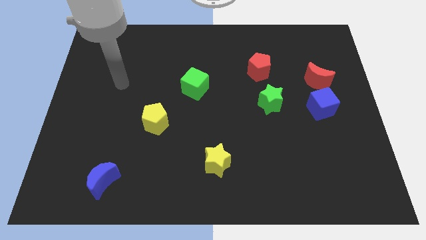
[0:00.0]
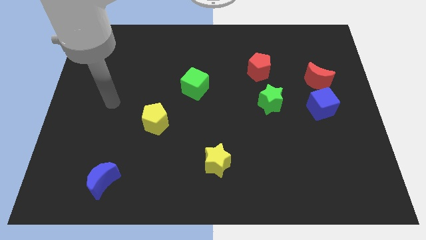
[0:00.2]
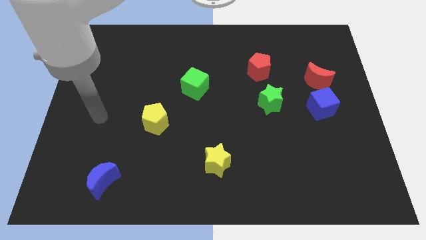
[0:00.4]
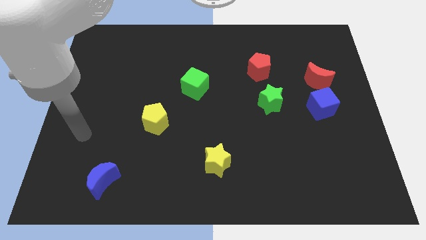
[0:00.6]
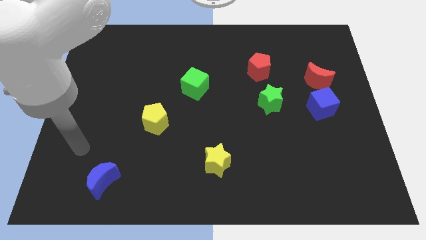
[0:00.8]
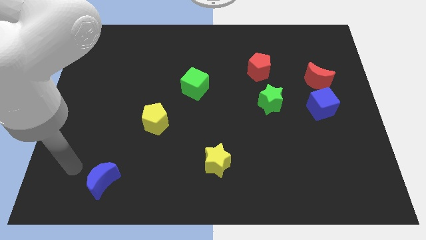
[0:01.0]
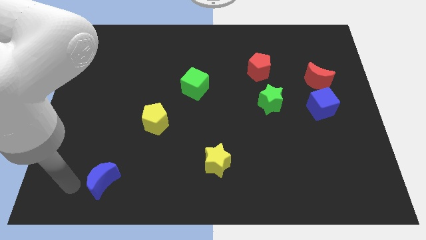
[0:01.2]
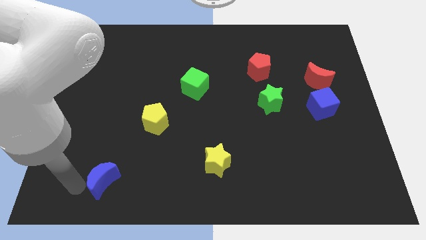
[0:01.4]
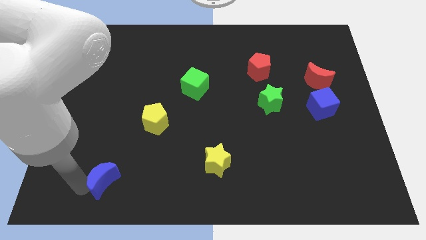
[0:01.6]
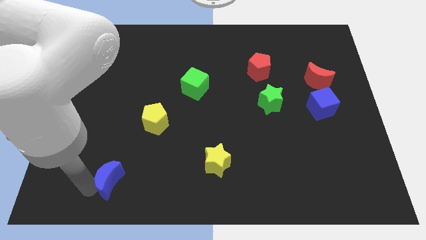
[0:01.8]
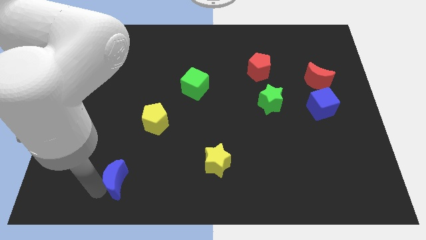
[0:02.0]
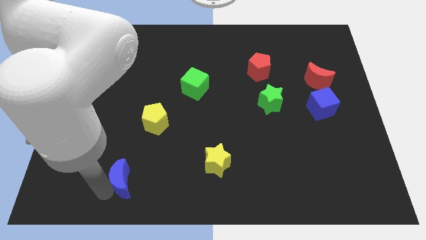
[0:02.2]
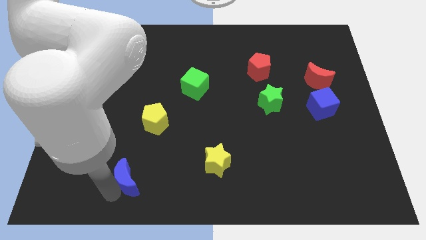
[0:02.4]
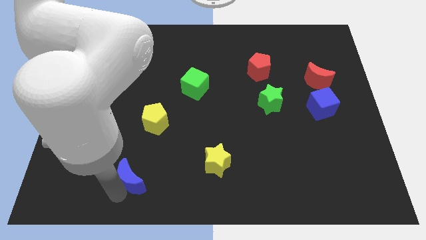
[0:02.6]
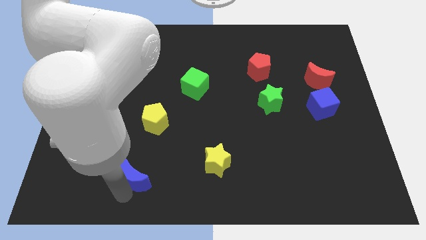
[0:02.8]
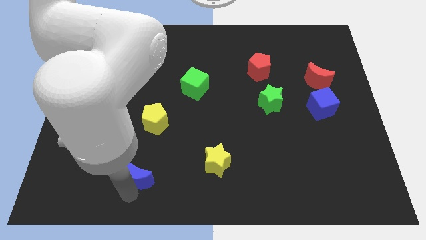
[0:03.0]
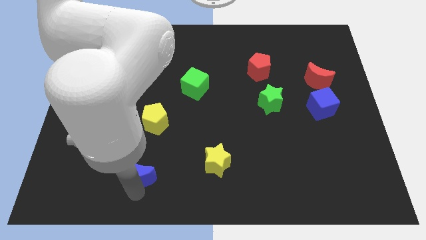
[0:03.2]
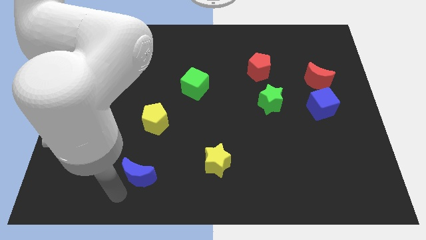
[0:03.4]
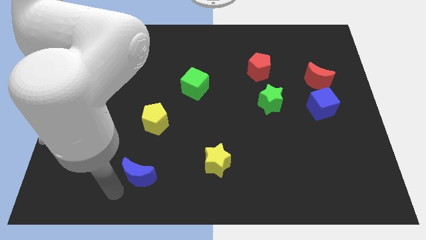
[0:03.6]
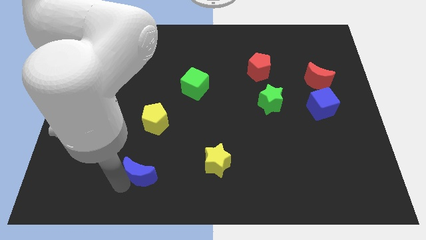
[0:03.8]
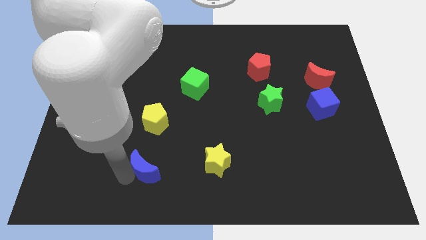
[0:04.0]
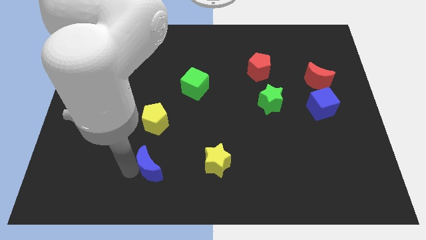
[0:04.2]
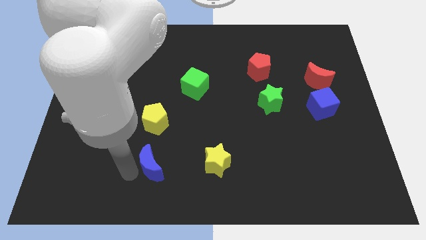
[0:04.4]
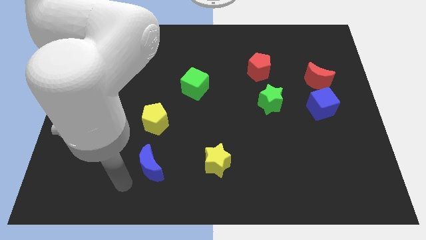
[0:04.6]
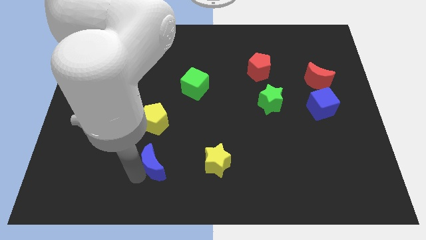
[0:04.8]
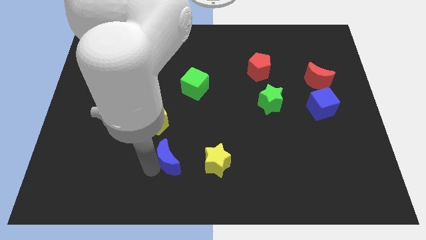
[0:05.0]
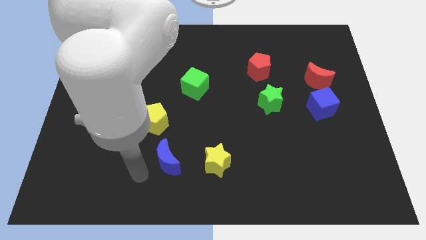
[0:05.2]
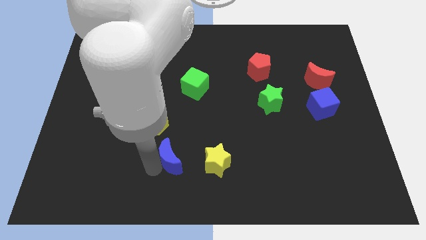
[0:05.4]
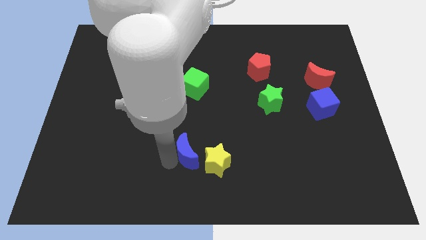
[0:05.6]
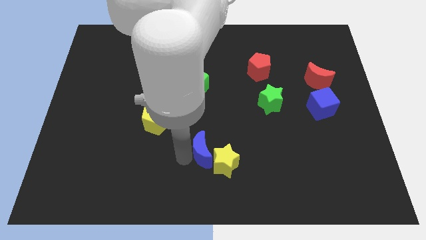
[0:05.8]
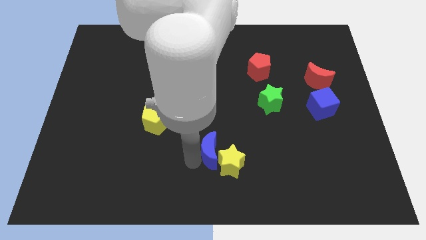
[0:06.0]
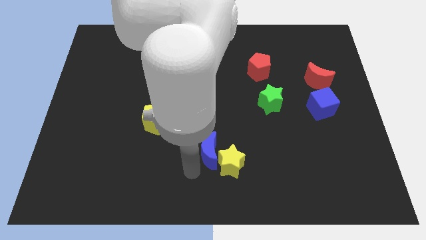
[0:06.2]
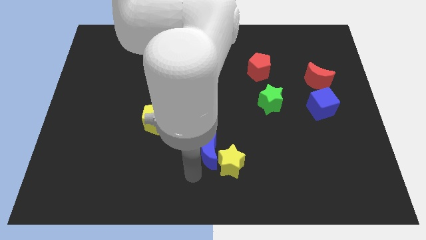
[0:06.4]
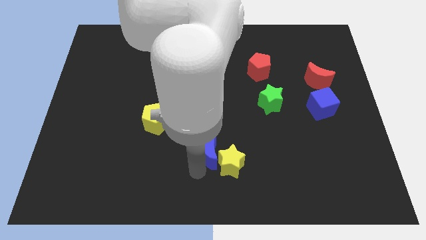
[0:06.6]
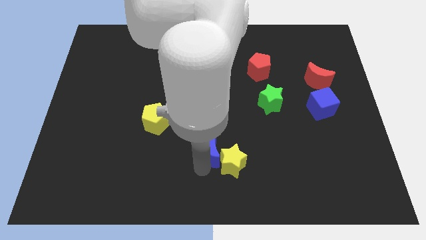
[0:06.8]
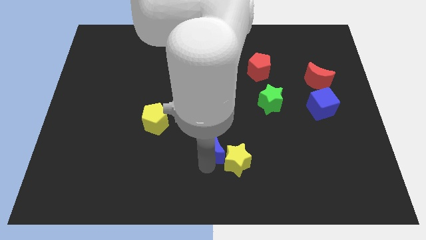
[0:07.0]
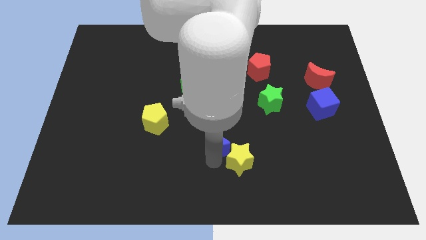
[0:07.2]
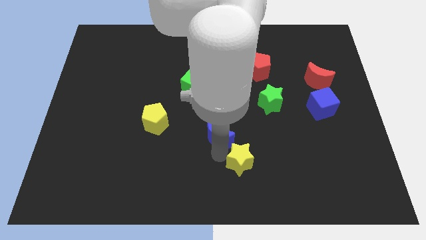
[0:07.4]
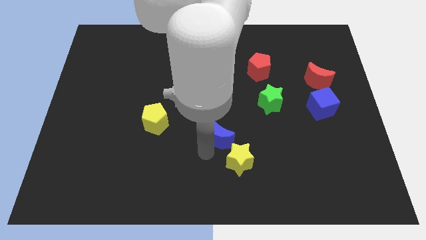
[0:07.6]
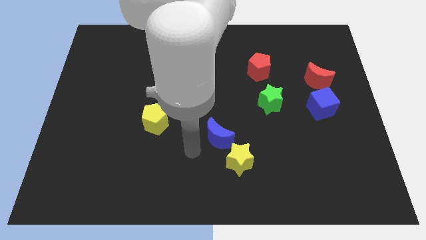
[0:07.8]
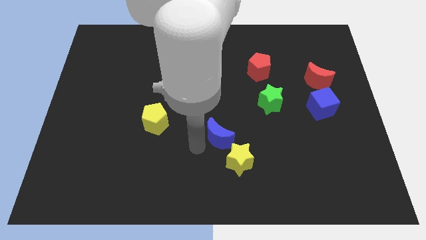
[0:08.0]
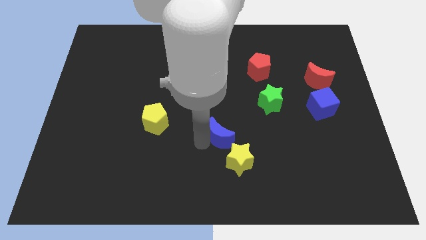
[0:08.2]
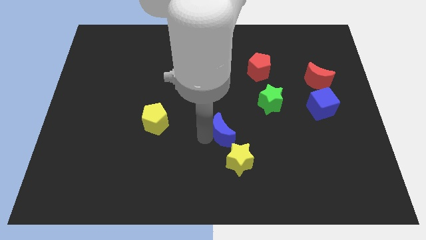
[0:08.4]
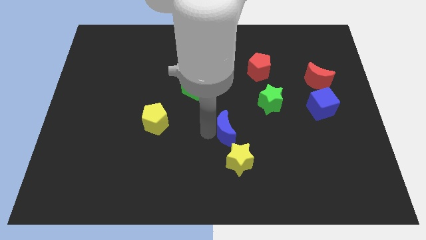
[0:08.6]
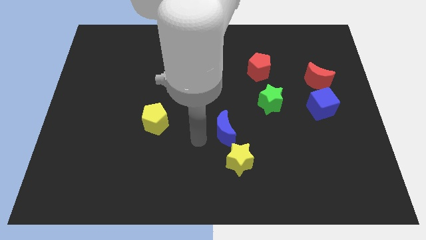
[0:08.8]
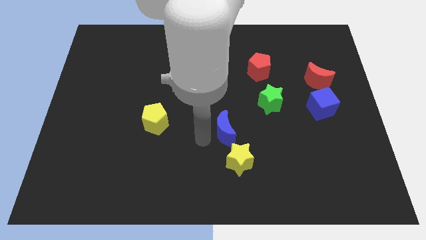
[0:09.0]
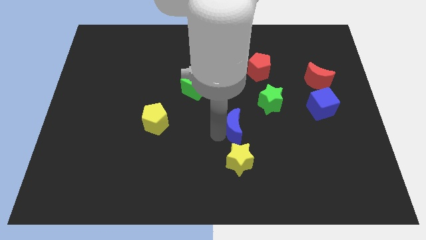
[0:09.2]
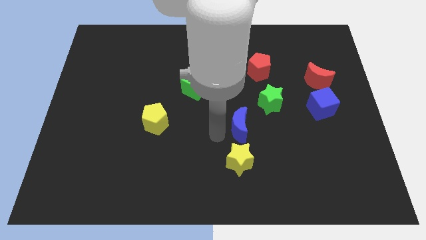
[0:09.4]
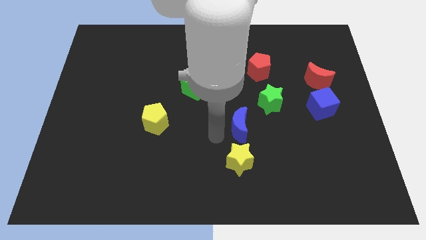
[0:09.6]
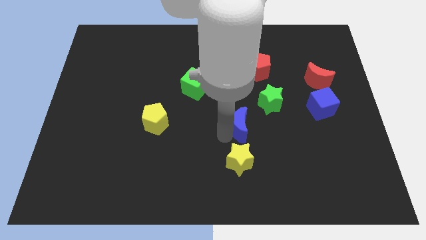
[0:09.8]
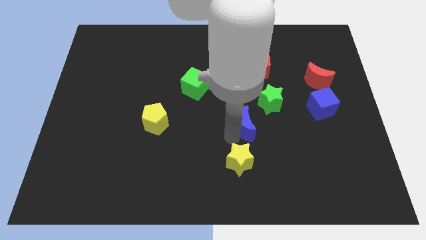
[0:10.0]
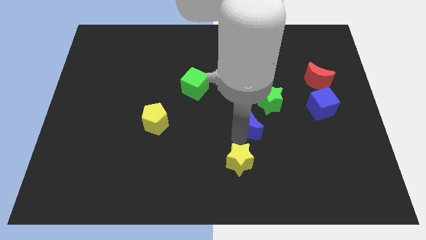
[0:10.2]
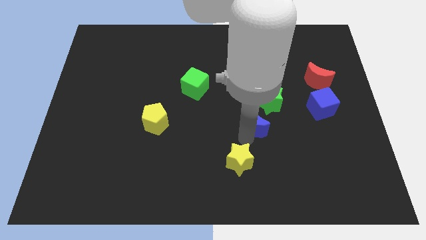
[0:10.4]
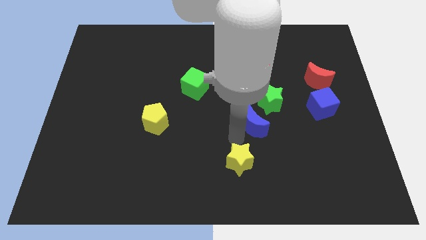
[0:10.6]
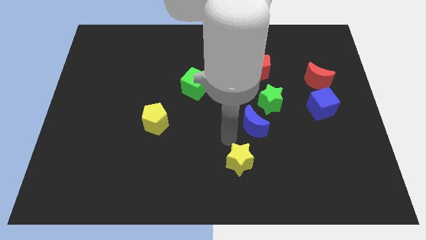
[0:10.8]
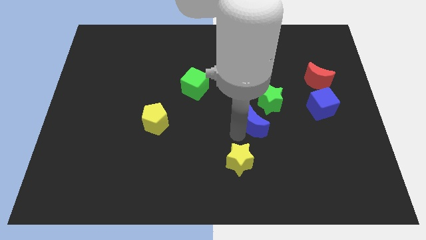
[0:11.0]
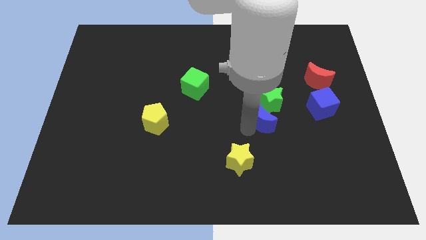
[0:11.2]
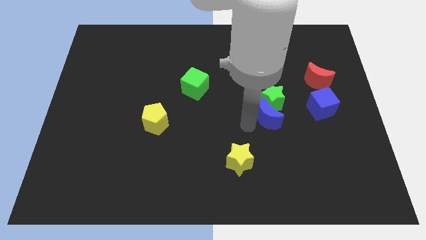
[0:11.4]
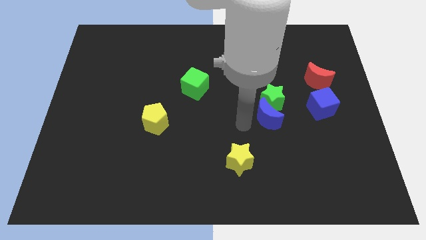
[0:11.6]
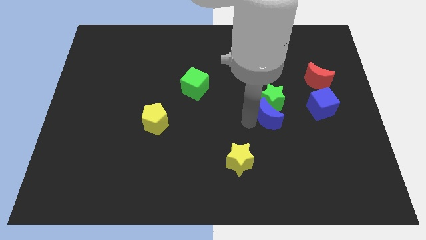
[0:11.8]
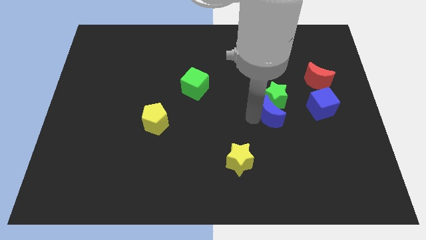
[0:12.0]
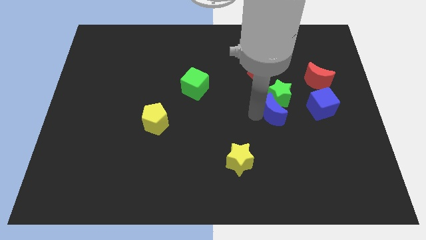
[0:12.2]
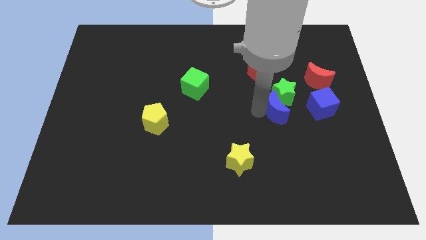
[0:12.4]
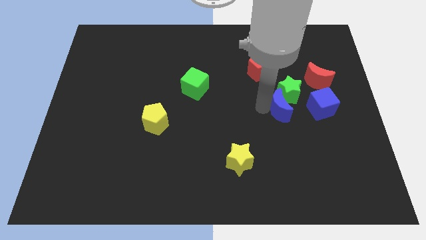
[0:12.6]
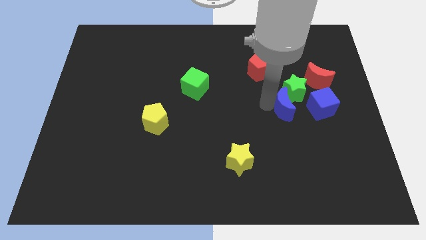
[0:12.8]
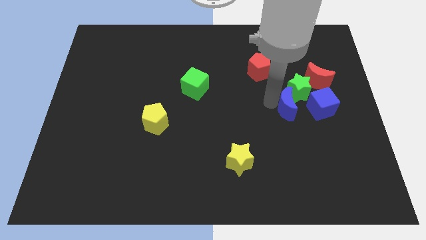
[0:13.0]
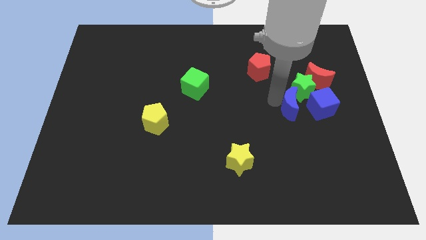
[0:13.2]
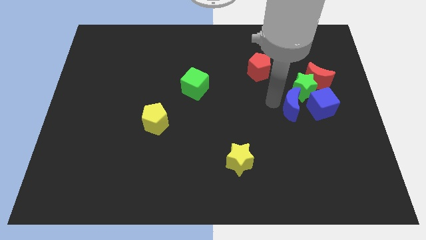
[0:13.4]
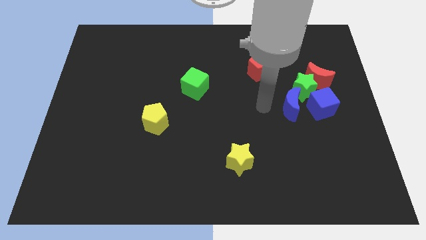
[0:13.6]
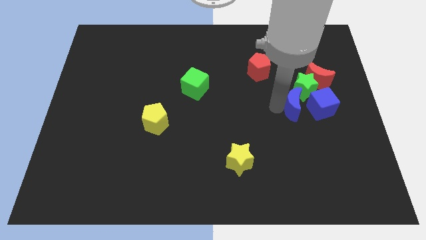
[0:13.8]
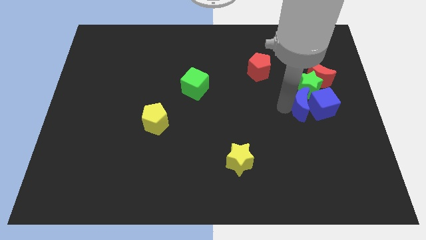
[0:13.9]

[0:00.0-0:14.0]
push the blue moon towards the blue cube

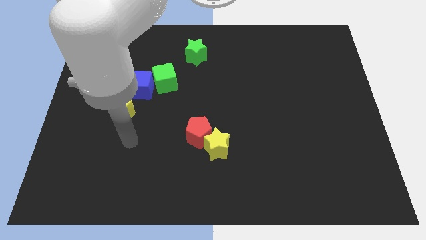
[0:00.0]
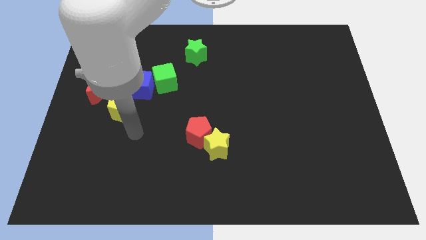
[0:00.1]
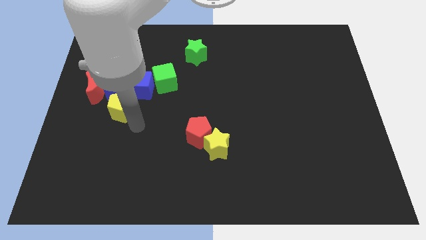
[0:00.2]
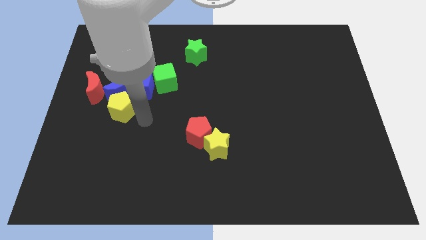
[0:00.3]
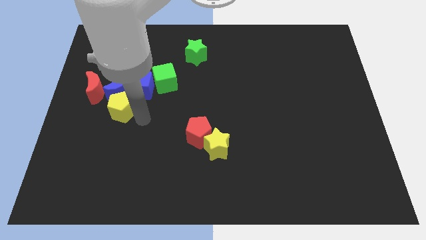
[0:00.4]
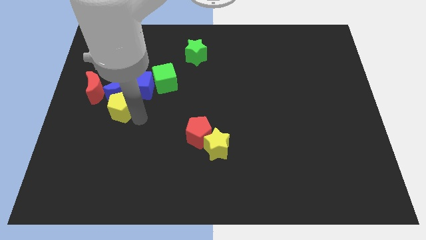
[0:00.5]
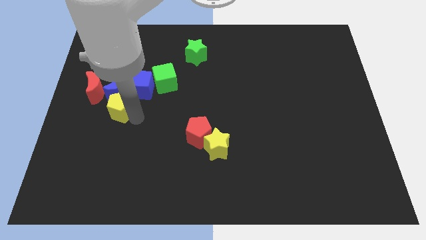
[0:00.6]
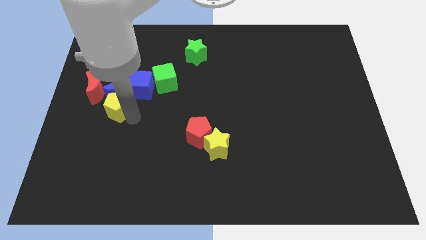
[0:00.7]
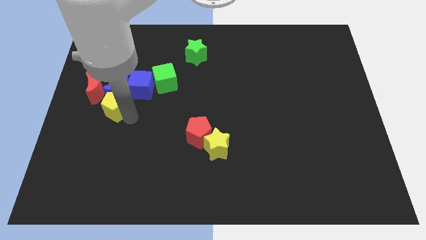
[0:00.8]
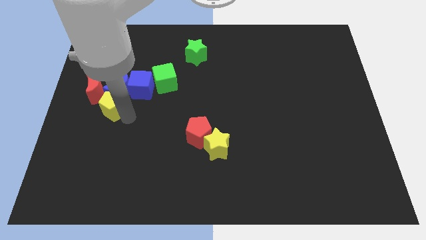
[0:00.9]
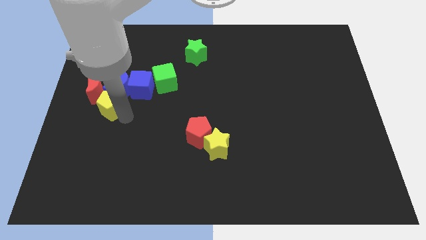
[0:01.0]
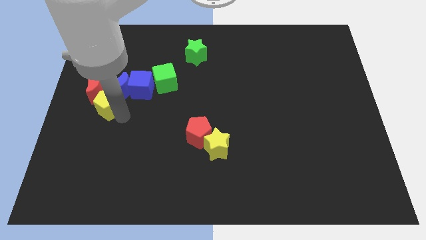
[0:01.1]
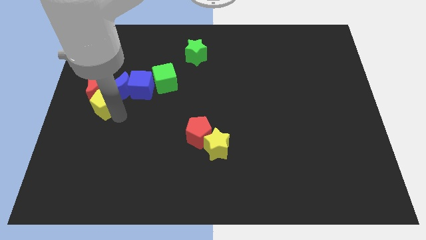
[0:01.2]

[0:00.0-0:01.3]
push the yellow pentagon to the red moon
